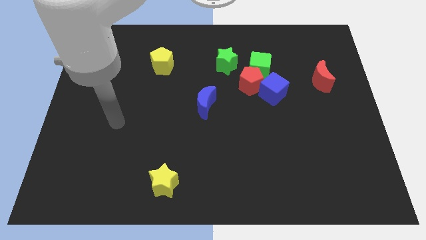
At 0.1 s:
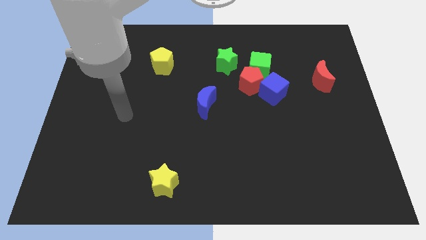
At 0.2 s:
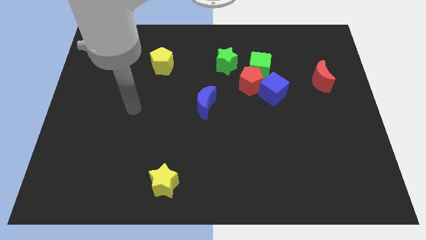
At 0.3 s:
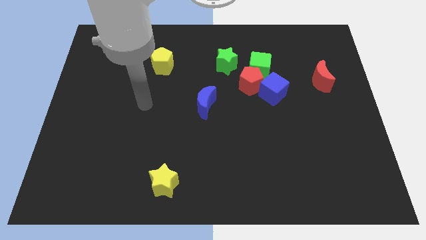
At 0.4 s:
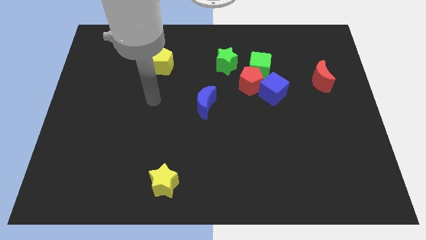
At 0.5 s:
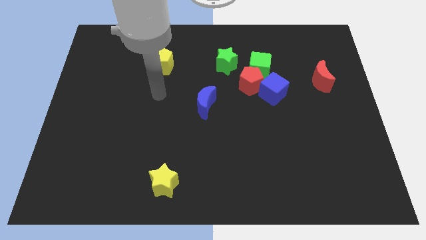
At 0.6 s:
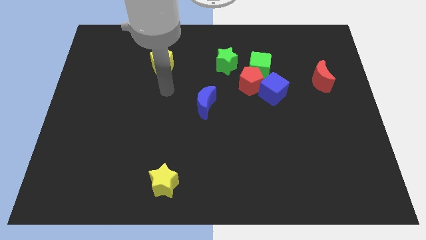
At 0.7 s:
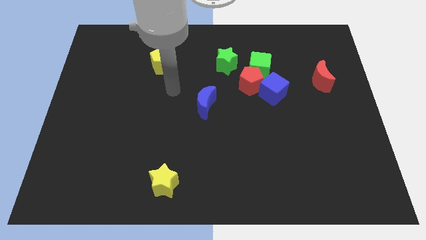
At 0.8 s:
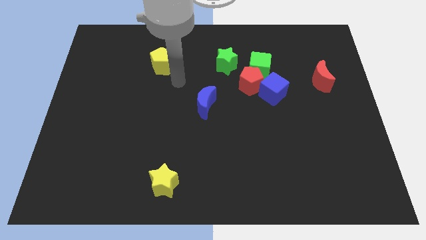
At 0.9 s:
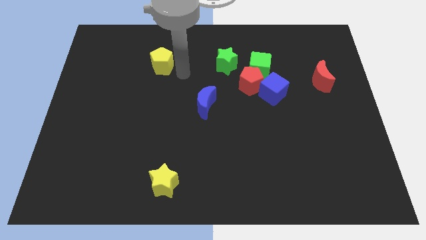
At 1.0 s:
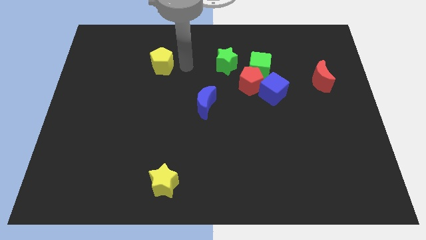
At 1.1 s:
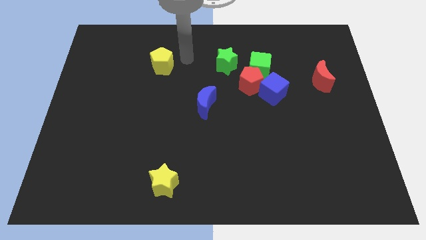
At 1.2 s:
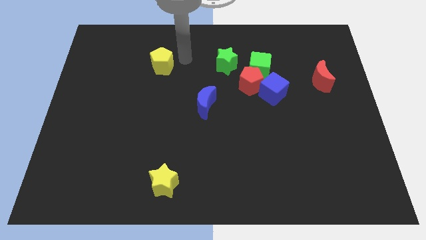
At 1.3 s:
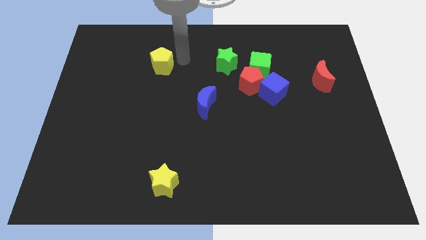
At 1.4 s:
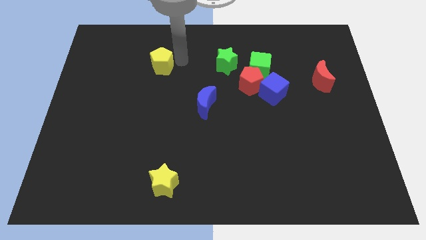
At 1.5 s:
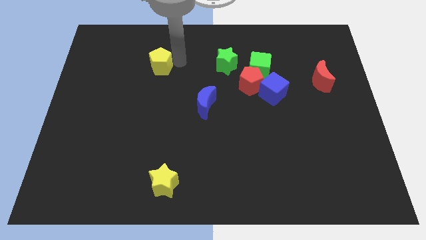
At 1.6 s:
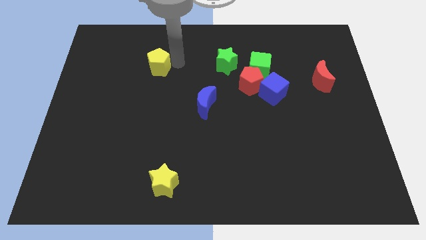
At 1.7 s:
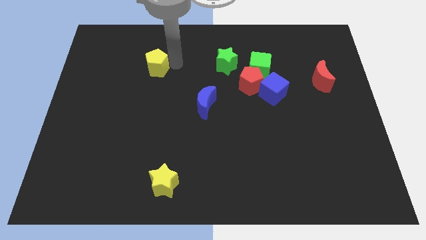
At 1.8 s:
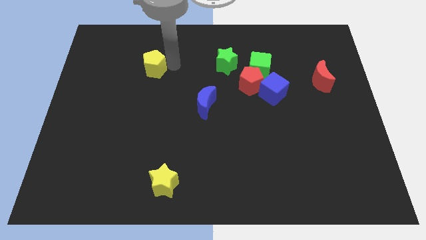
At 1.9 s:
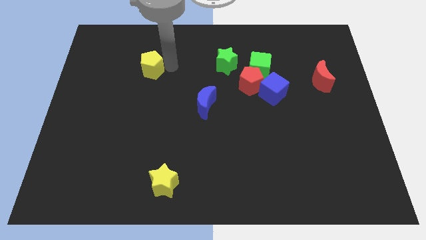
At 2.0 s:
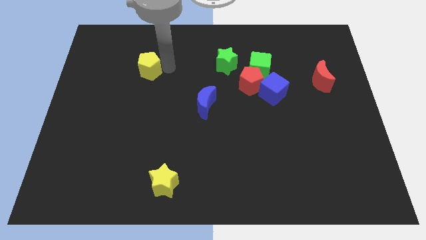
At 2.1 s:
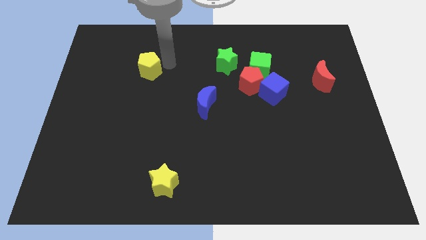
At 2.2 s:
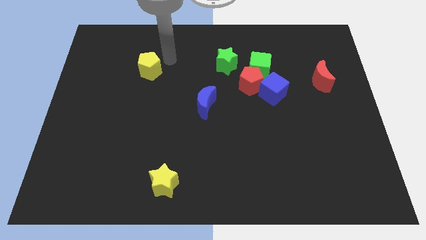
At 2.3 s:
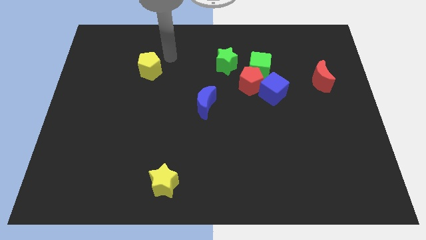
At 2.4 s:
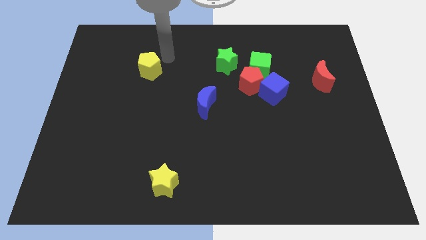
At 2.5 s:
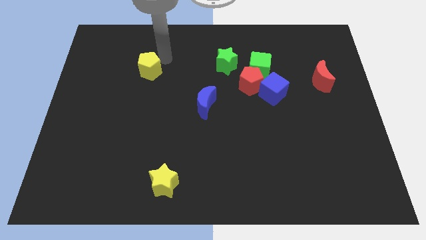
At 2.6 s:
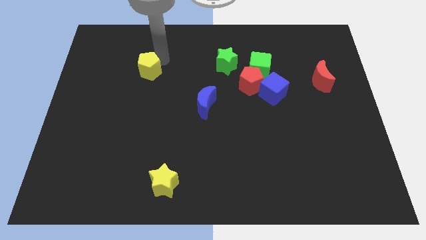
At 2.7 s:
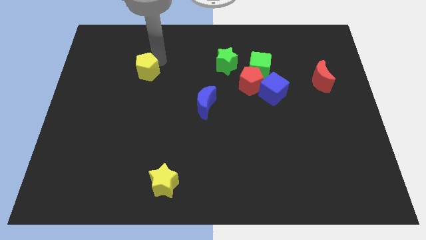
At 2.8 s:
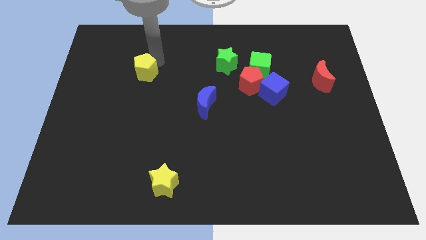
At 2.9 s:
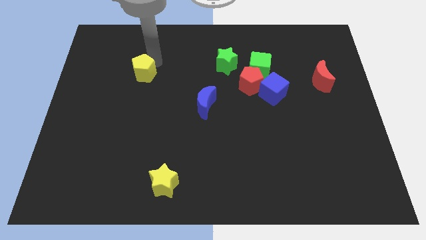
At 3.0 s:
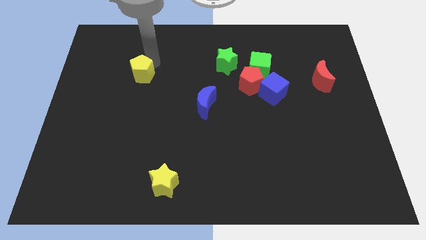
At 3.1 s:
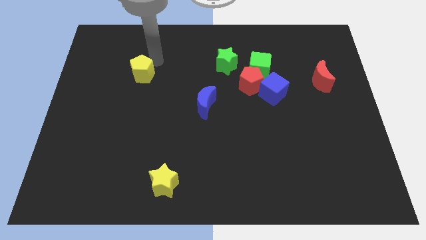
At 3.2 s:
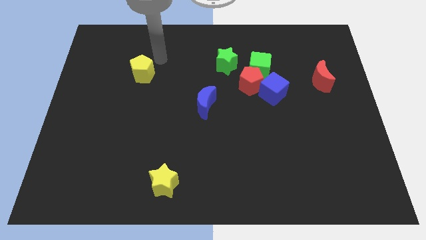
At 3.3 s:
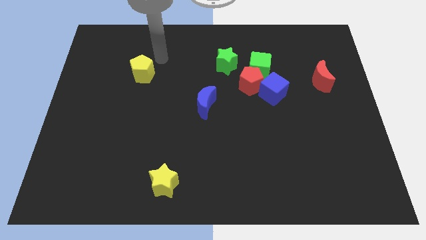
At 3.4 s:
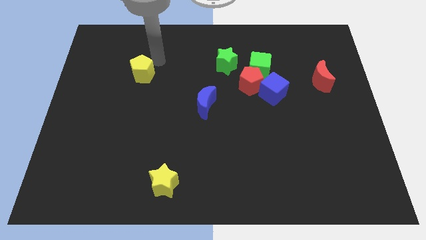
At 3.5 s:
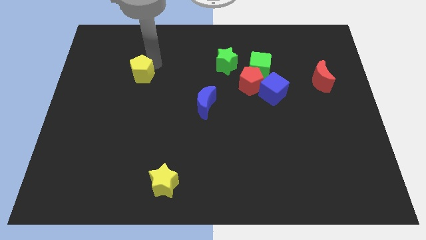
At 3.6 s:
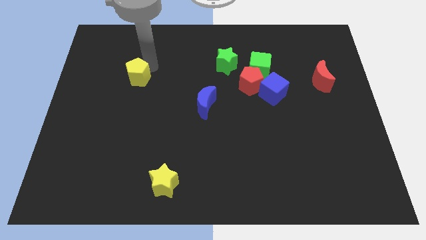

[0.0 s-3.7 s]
move the yellow pentagon a bit down and then to the left

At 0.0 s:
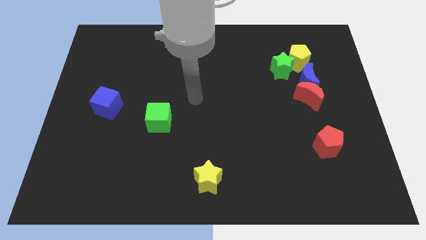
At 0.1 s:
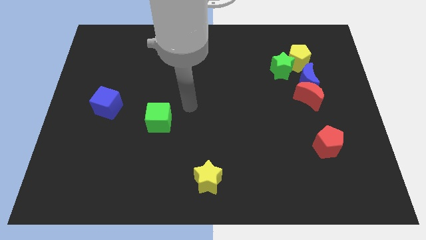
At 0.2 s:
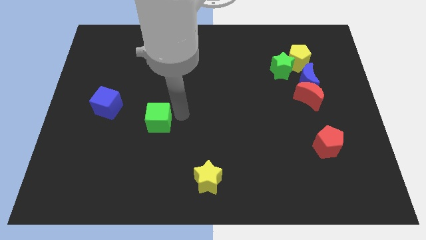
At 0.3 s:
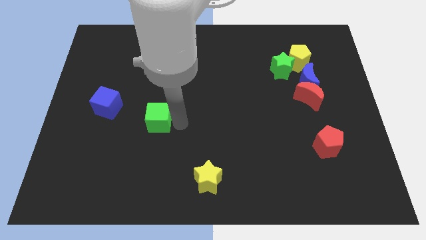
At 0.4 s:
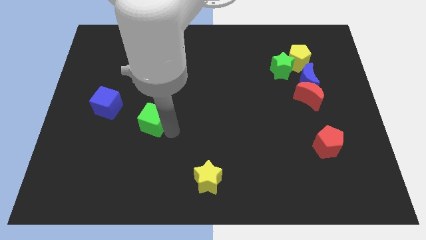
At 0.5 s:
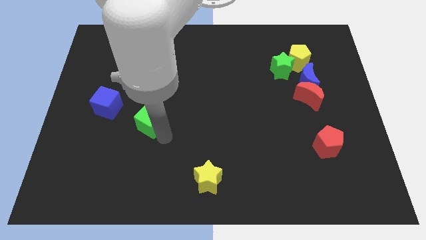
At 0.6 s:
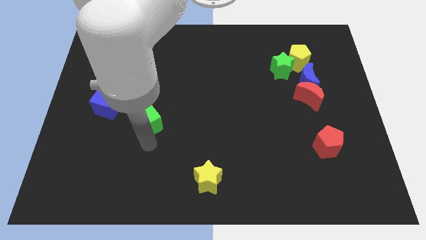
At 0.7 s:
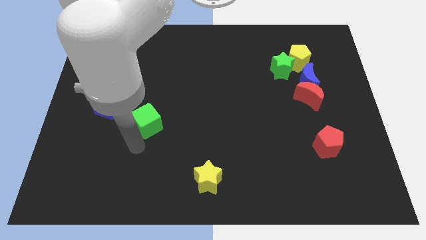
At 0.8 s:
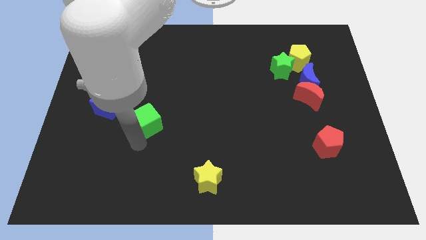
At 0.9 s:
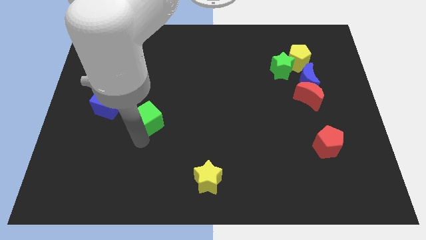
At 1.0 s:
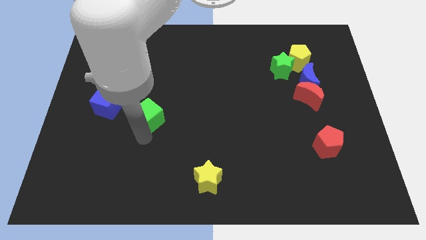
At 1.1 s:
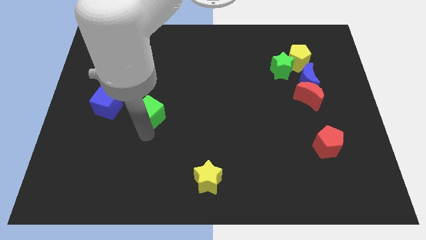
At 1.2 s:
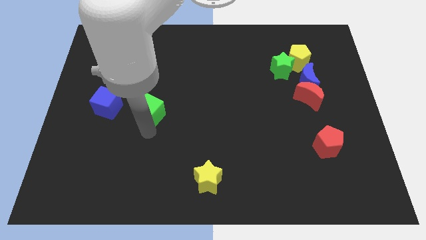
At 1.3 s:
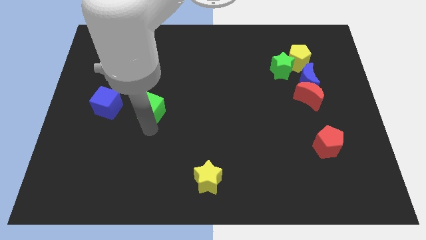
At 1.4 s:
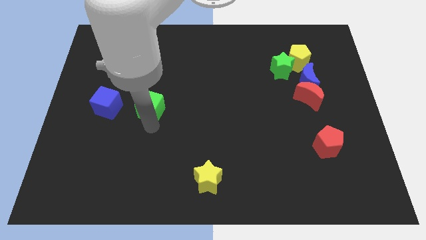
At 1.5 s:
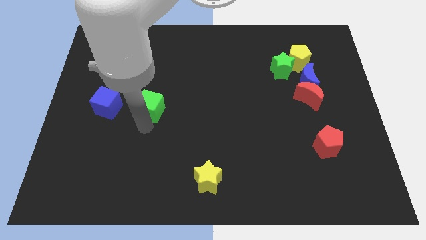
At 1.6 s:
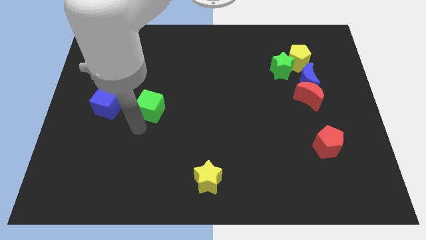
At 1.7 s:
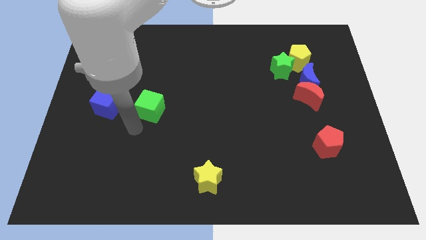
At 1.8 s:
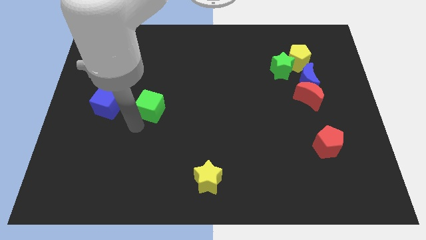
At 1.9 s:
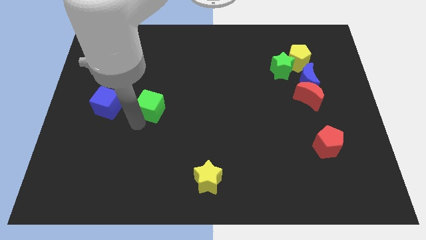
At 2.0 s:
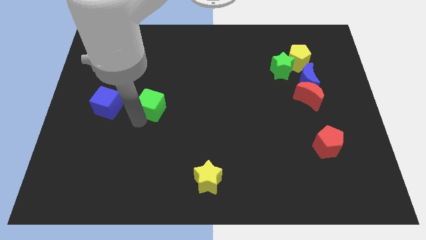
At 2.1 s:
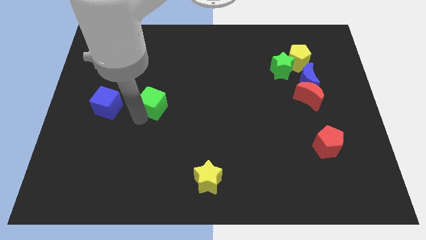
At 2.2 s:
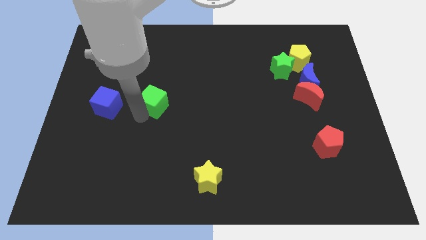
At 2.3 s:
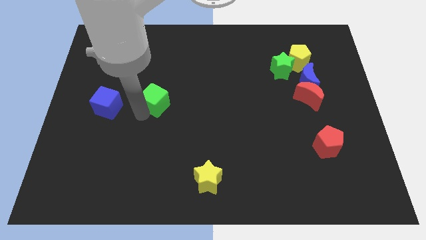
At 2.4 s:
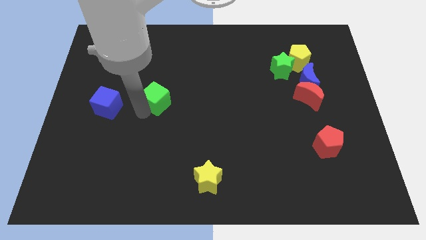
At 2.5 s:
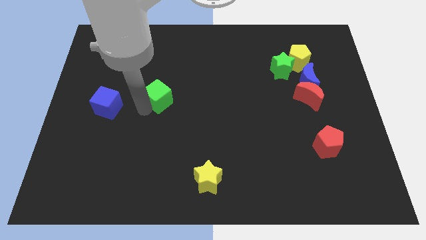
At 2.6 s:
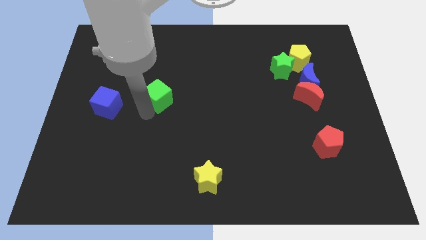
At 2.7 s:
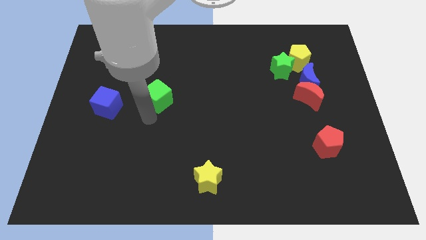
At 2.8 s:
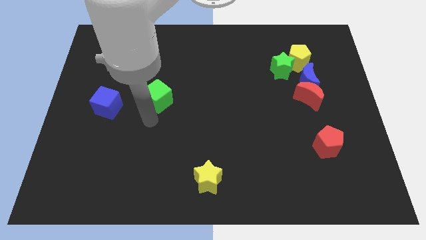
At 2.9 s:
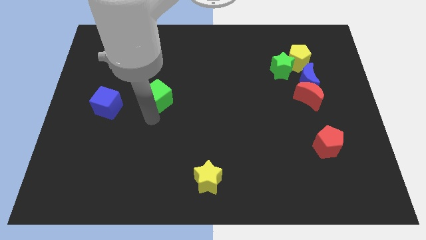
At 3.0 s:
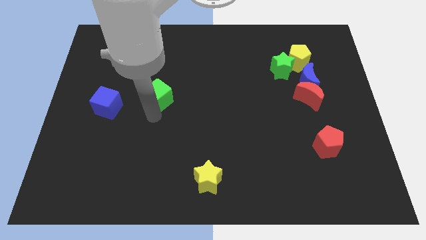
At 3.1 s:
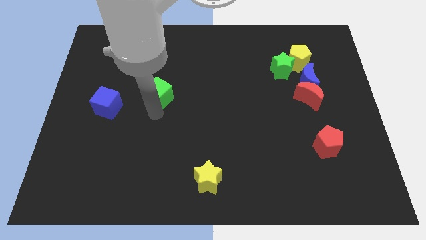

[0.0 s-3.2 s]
slide the green cube upwards slightly

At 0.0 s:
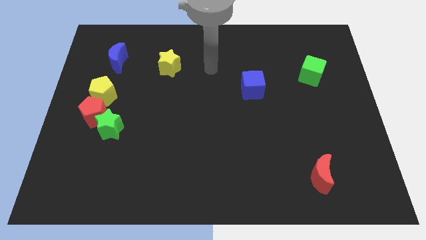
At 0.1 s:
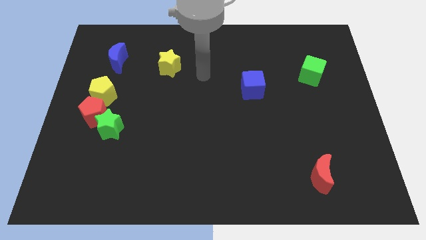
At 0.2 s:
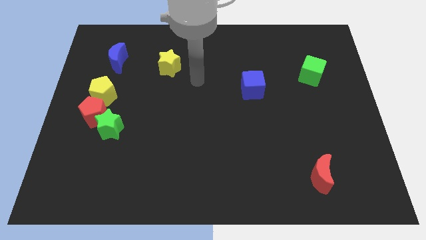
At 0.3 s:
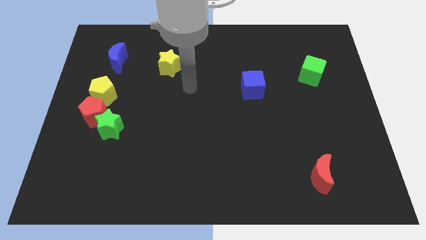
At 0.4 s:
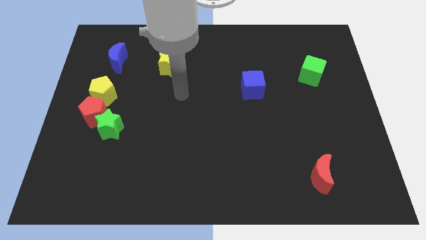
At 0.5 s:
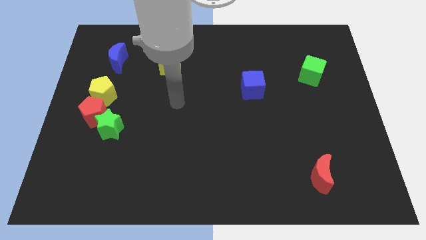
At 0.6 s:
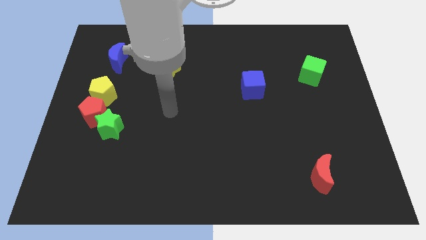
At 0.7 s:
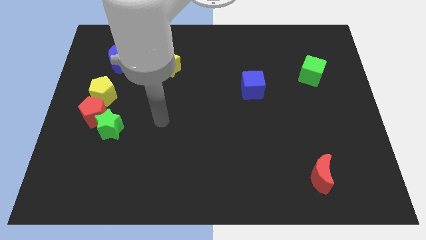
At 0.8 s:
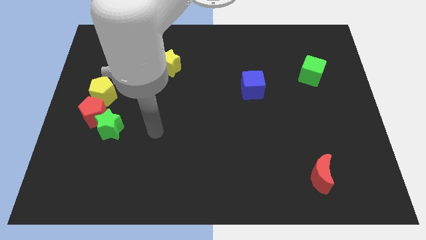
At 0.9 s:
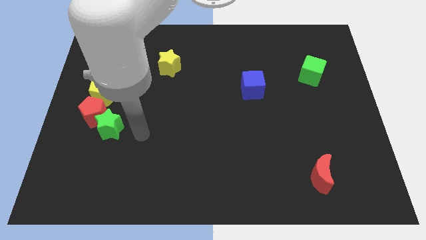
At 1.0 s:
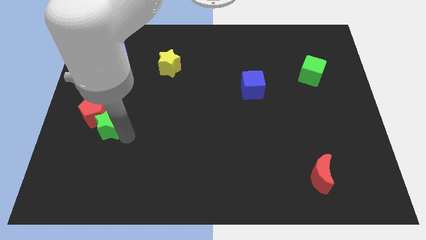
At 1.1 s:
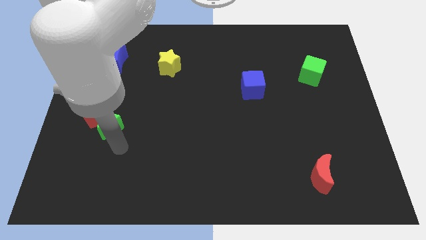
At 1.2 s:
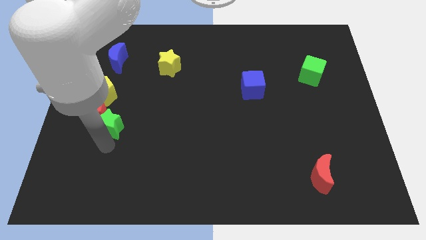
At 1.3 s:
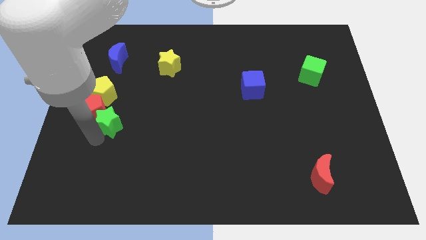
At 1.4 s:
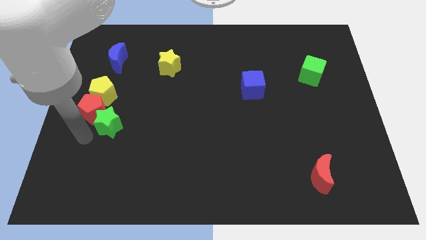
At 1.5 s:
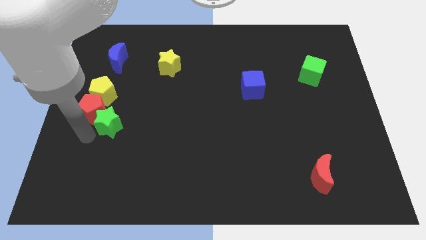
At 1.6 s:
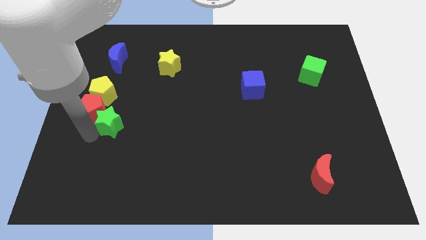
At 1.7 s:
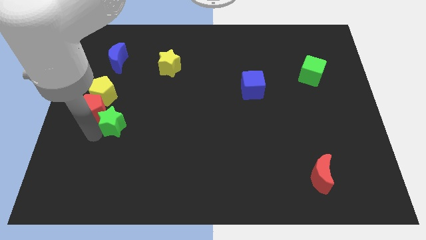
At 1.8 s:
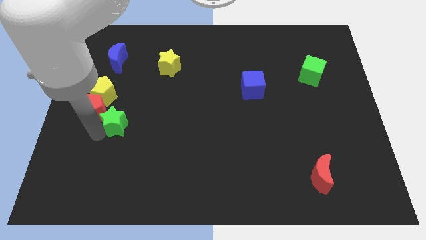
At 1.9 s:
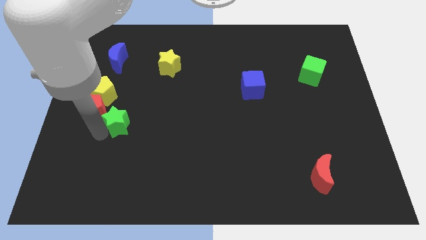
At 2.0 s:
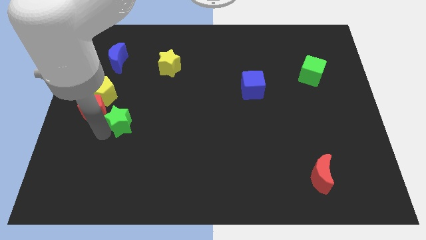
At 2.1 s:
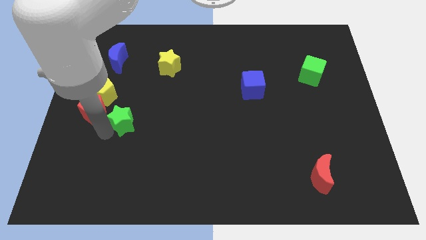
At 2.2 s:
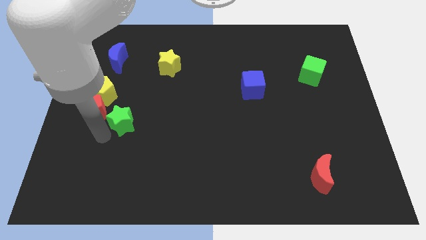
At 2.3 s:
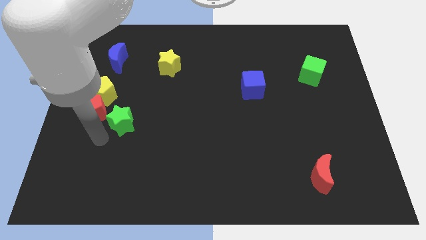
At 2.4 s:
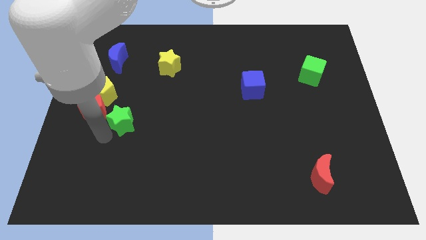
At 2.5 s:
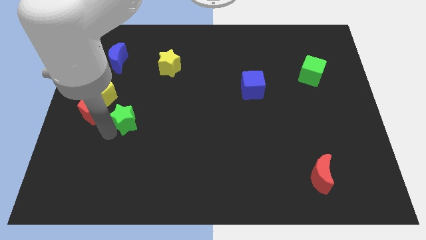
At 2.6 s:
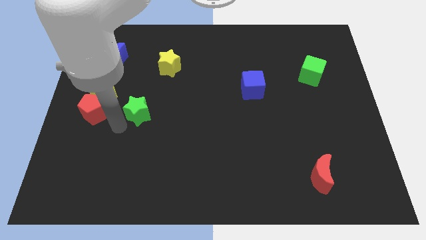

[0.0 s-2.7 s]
slightly slide the green star upwards and then to the right
